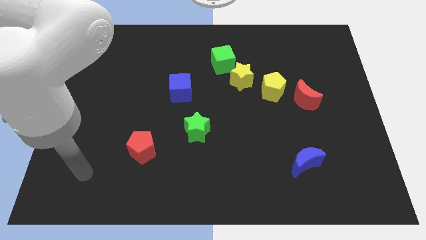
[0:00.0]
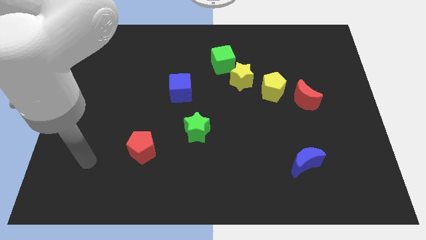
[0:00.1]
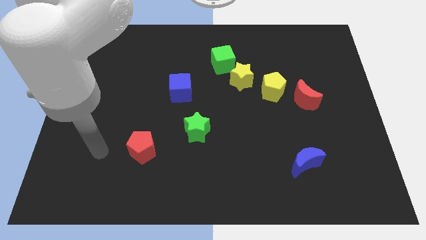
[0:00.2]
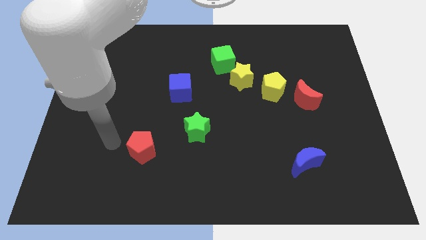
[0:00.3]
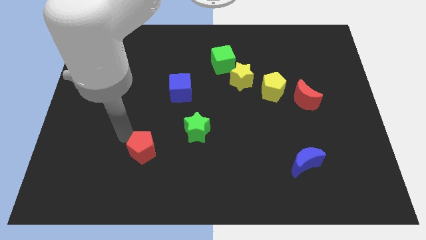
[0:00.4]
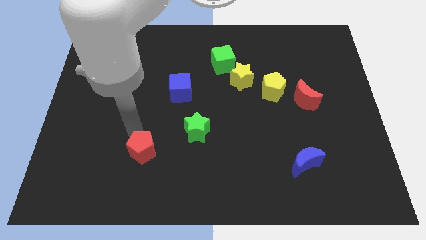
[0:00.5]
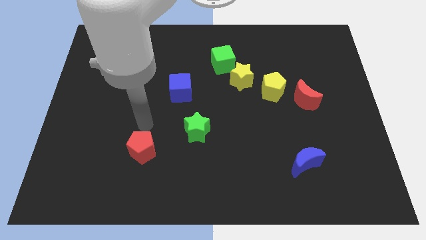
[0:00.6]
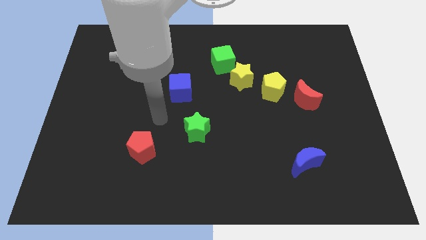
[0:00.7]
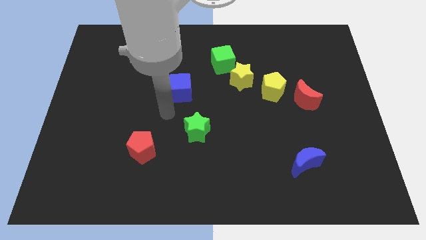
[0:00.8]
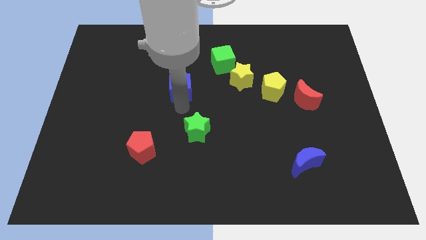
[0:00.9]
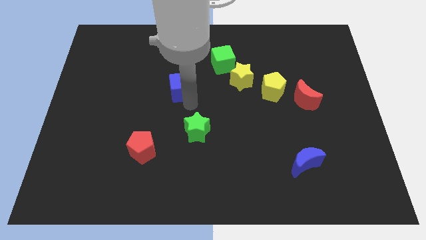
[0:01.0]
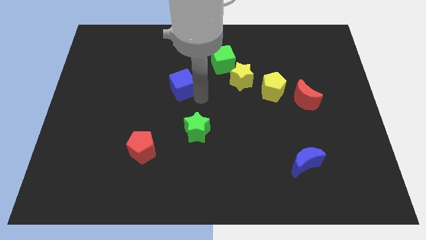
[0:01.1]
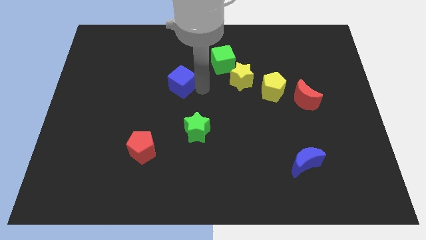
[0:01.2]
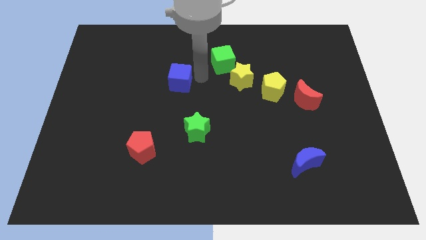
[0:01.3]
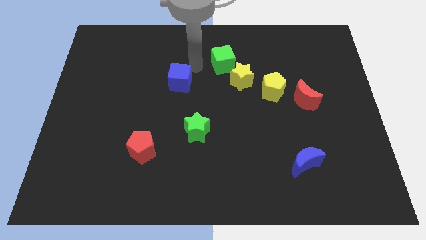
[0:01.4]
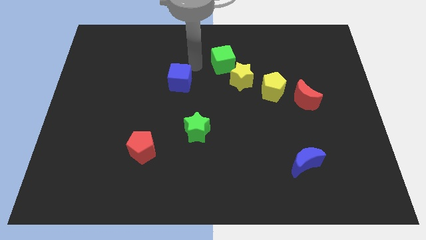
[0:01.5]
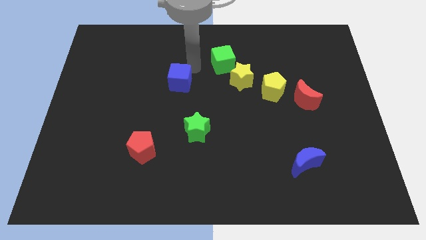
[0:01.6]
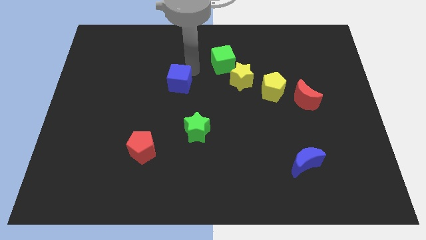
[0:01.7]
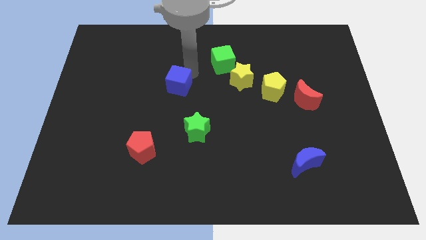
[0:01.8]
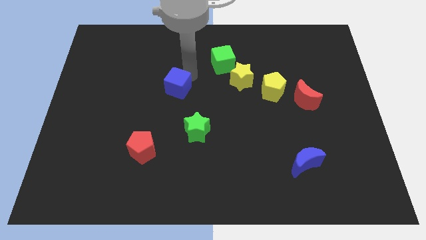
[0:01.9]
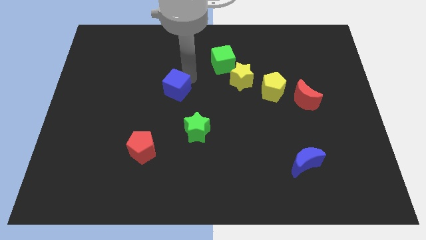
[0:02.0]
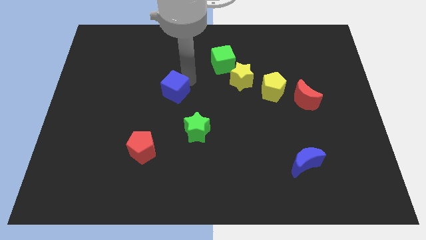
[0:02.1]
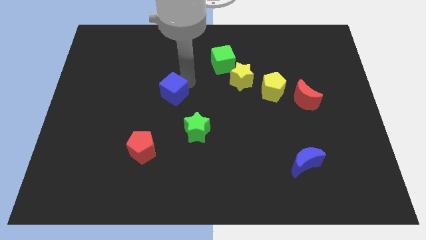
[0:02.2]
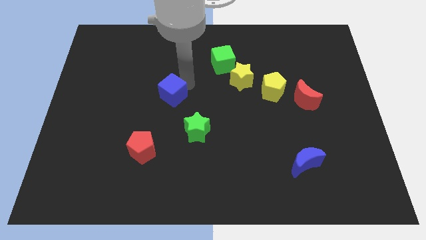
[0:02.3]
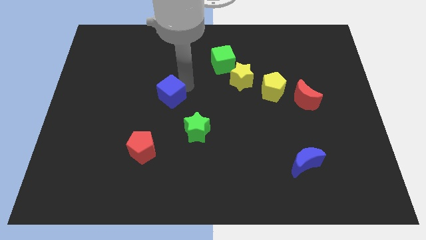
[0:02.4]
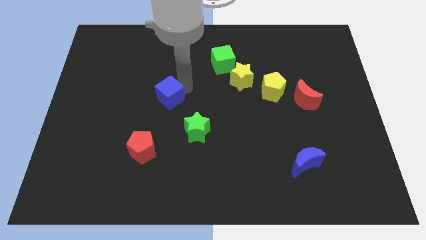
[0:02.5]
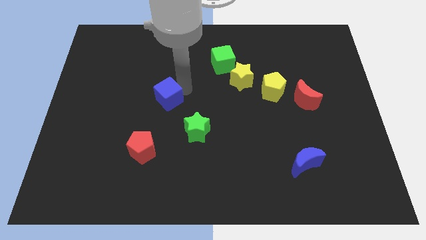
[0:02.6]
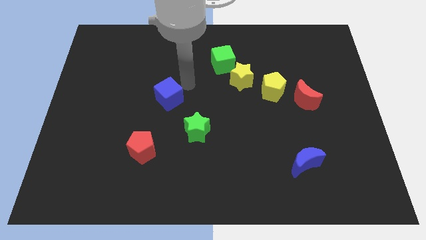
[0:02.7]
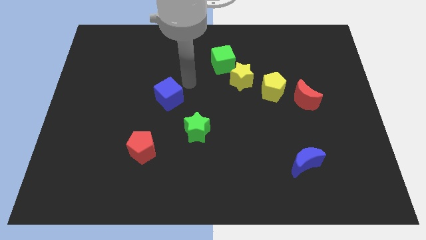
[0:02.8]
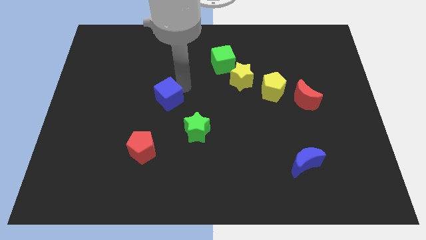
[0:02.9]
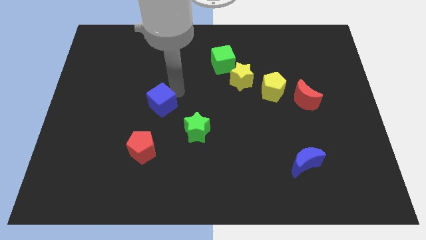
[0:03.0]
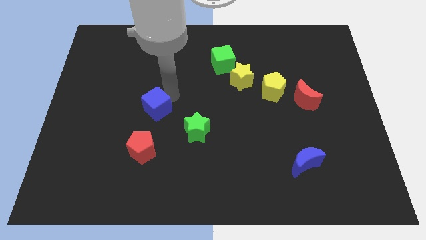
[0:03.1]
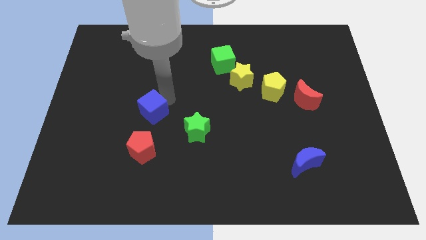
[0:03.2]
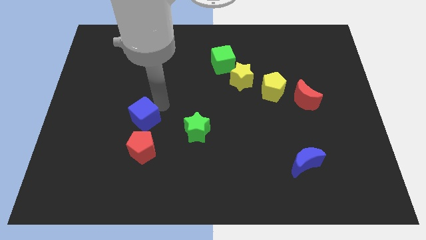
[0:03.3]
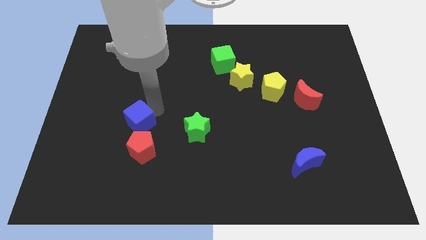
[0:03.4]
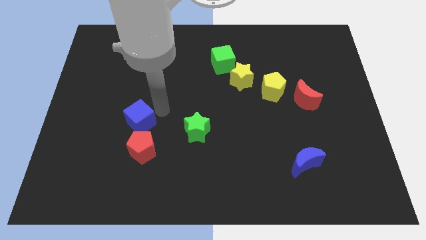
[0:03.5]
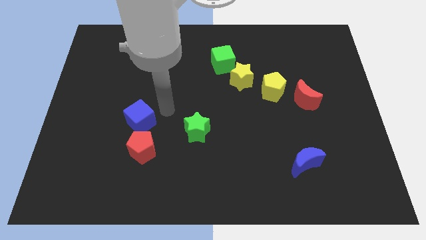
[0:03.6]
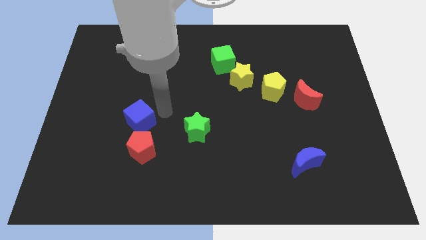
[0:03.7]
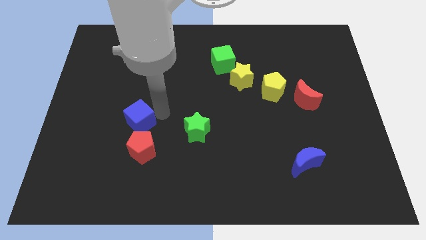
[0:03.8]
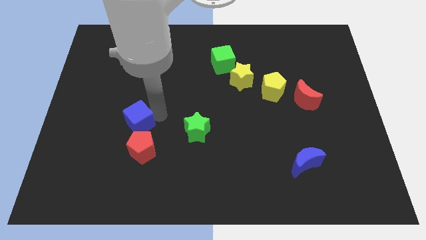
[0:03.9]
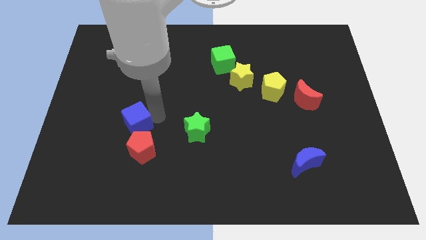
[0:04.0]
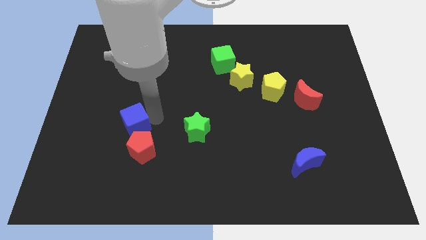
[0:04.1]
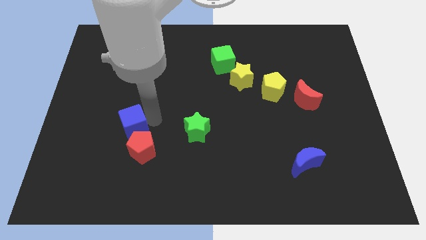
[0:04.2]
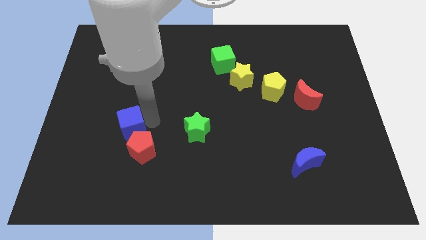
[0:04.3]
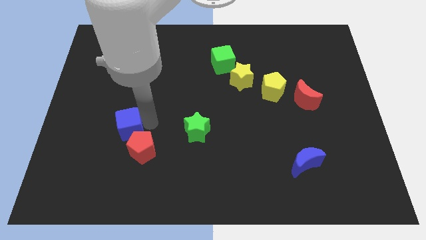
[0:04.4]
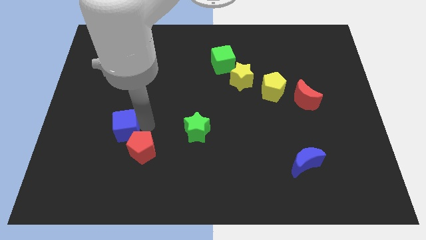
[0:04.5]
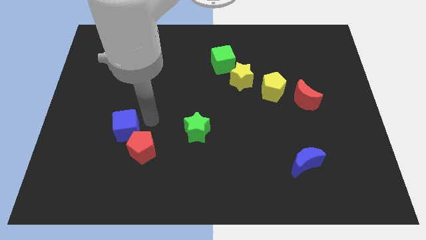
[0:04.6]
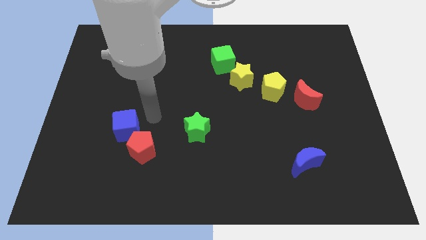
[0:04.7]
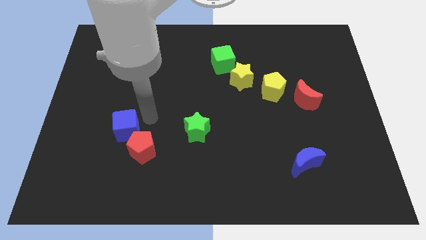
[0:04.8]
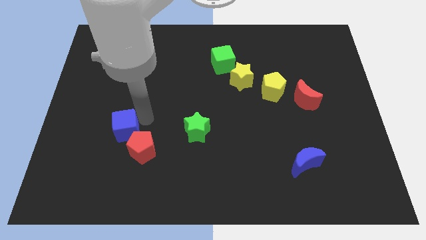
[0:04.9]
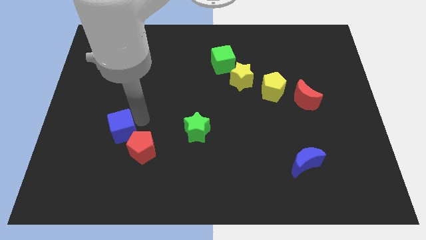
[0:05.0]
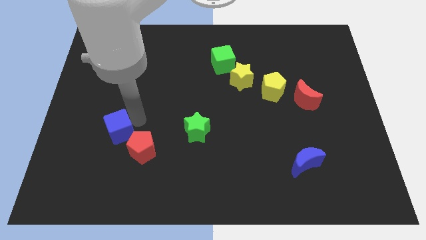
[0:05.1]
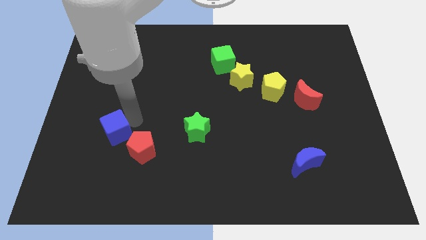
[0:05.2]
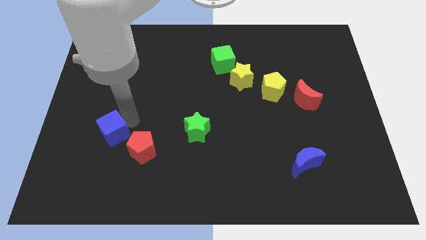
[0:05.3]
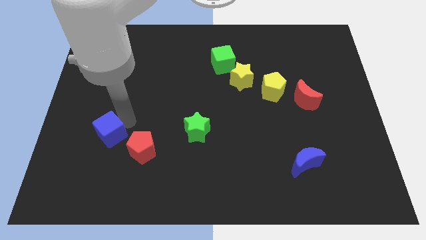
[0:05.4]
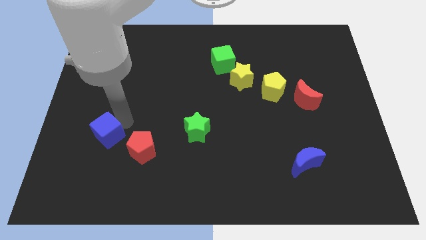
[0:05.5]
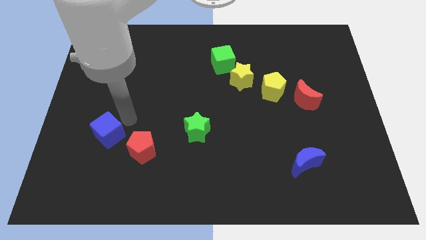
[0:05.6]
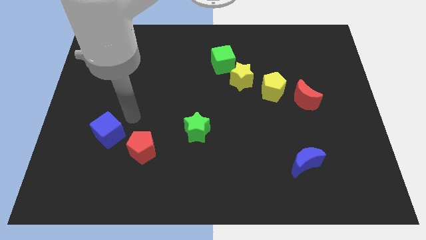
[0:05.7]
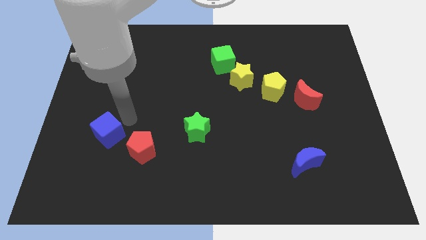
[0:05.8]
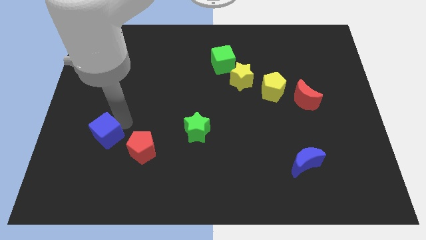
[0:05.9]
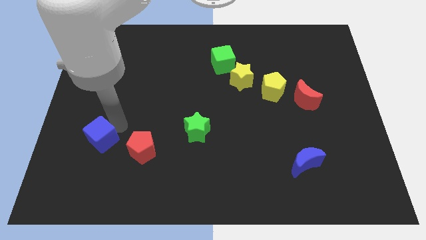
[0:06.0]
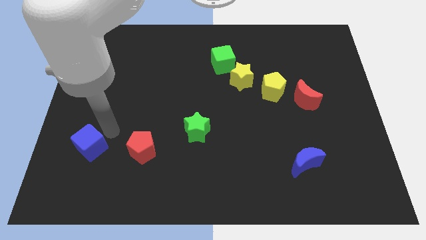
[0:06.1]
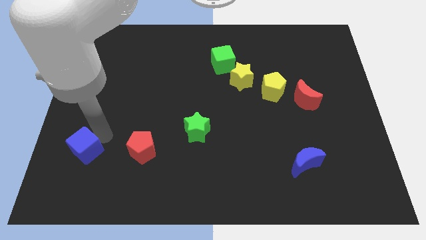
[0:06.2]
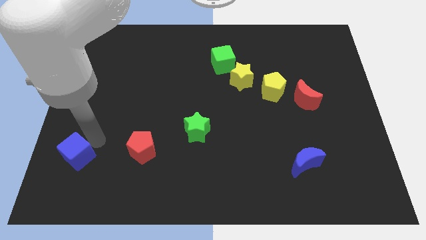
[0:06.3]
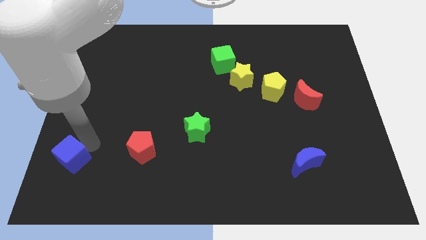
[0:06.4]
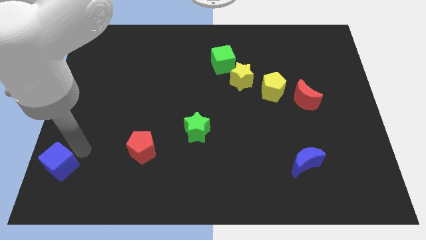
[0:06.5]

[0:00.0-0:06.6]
push the blue cube to the lower left corner
